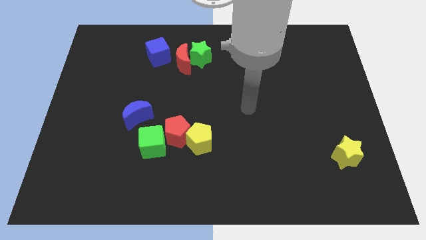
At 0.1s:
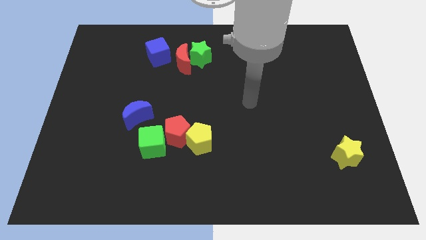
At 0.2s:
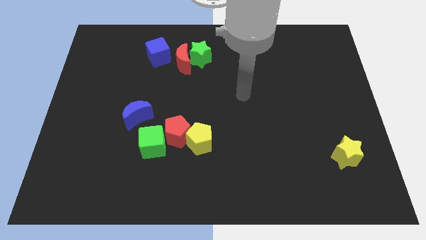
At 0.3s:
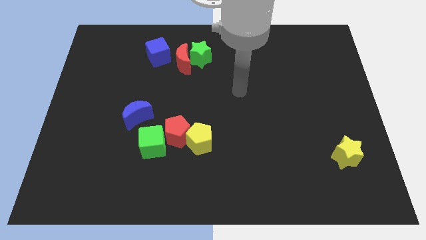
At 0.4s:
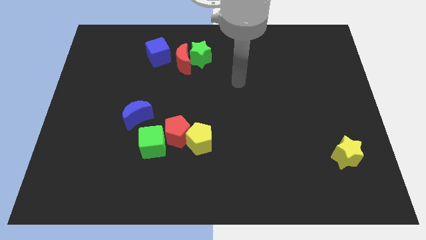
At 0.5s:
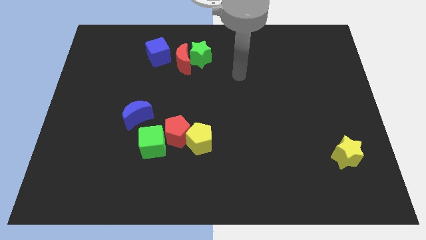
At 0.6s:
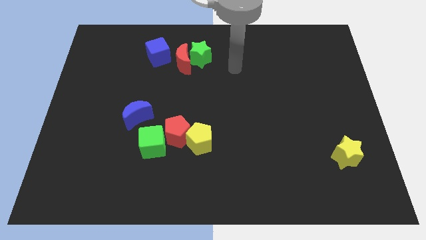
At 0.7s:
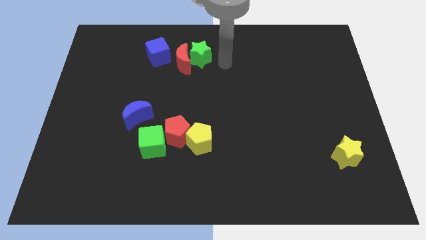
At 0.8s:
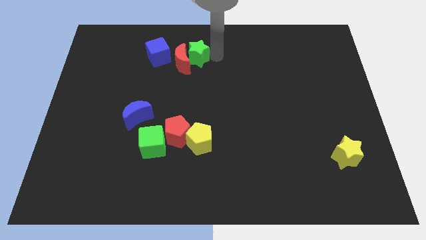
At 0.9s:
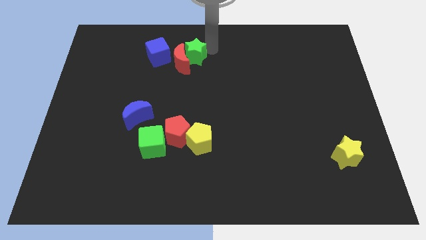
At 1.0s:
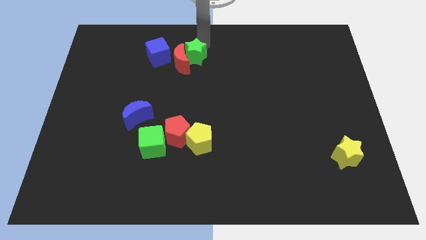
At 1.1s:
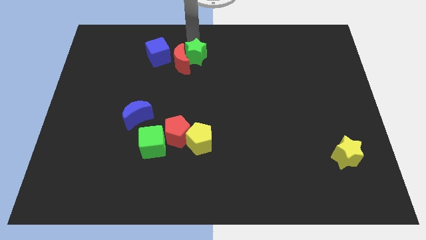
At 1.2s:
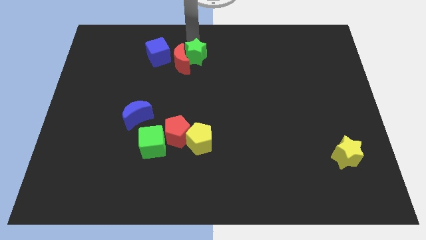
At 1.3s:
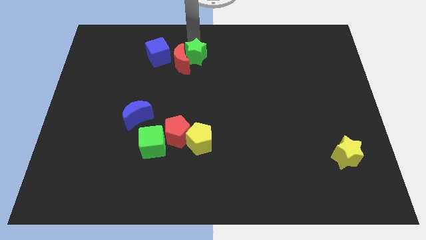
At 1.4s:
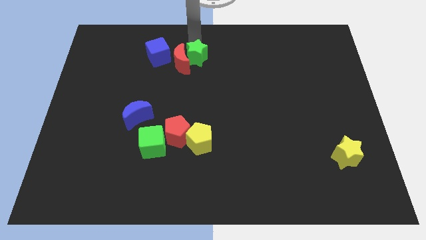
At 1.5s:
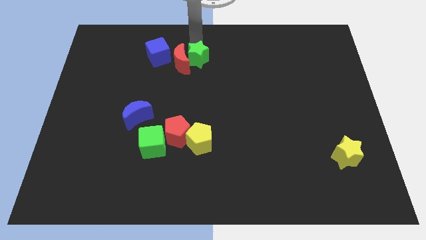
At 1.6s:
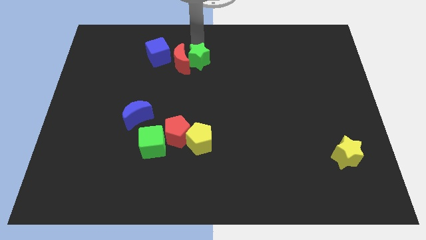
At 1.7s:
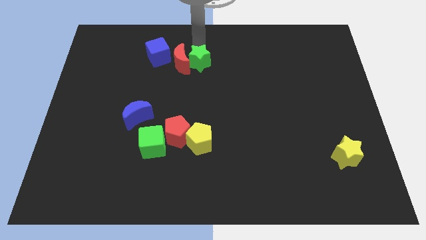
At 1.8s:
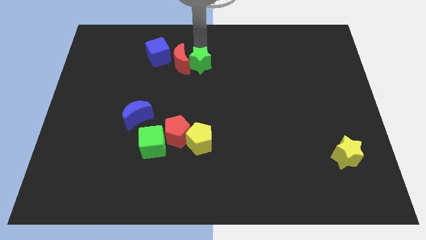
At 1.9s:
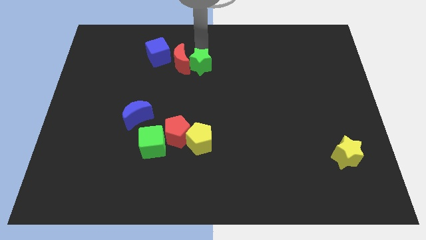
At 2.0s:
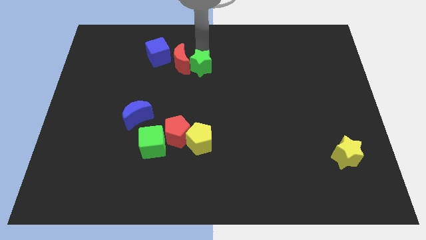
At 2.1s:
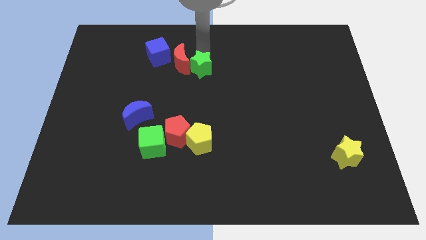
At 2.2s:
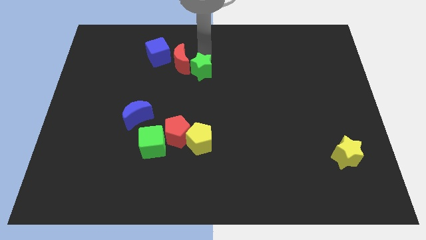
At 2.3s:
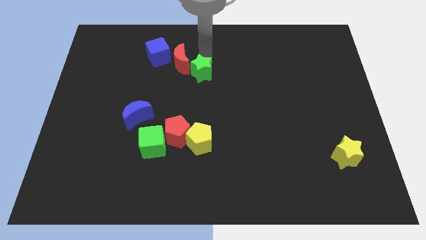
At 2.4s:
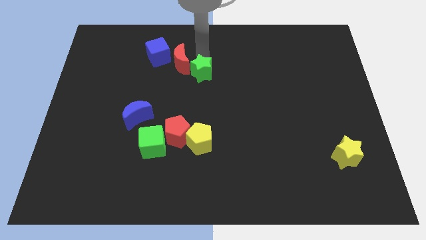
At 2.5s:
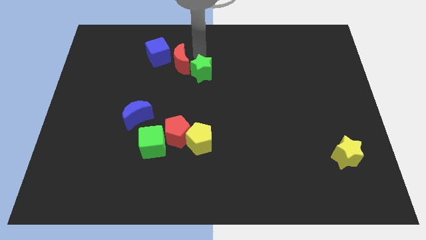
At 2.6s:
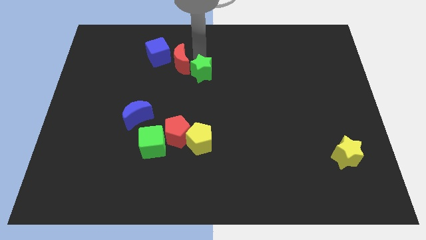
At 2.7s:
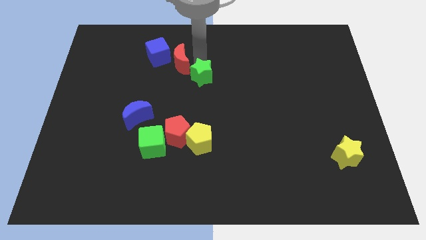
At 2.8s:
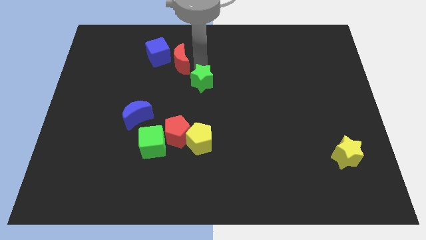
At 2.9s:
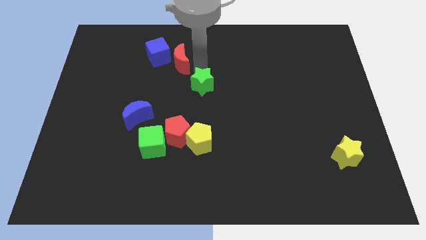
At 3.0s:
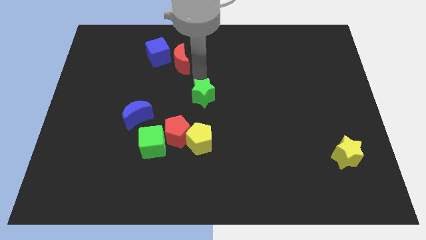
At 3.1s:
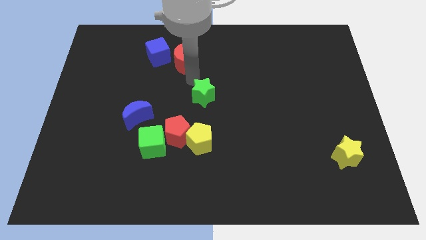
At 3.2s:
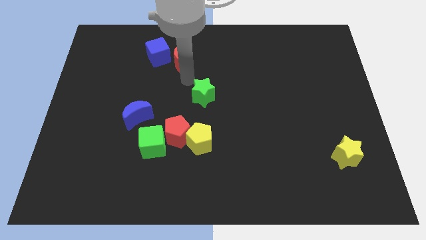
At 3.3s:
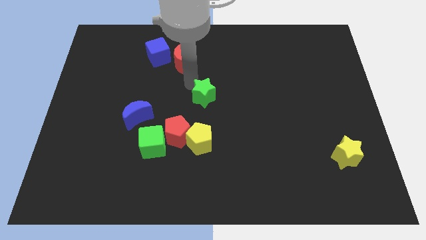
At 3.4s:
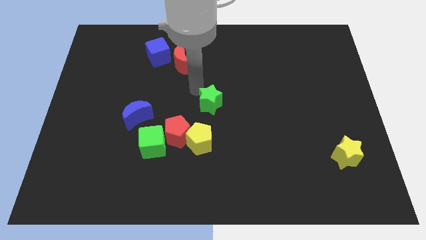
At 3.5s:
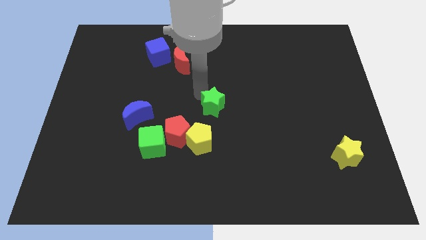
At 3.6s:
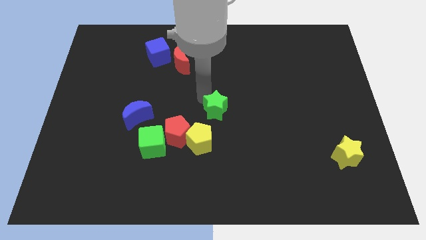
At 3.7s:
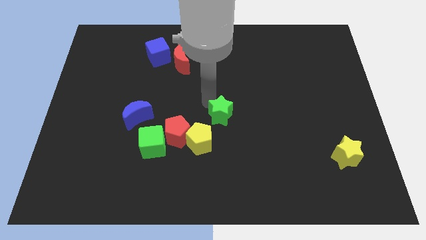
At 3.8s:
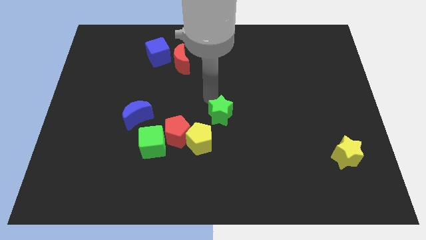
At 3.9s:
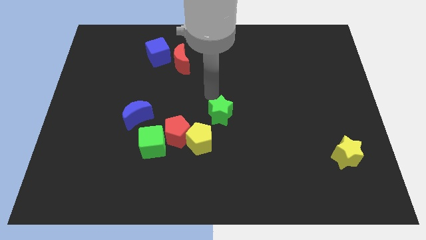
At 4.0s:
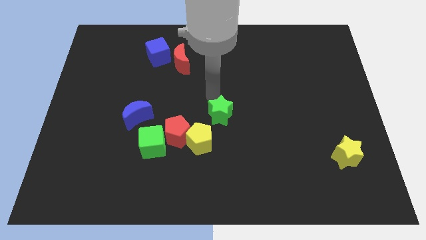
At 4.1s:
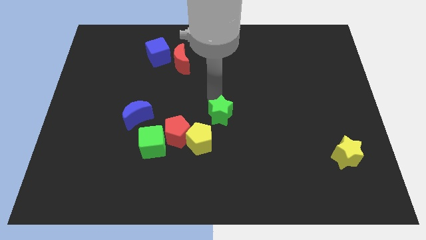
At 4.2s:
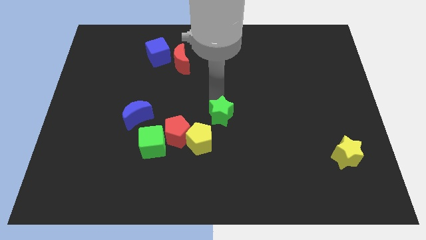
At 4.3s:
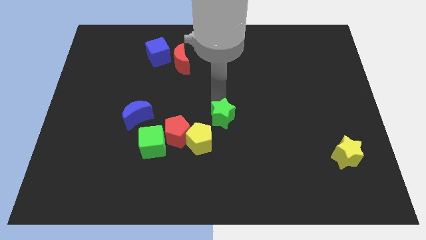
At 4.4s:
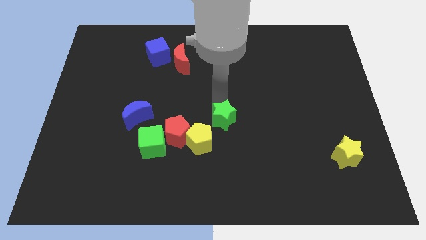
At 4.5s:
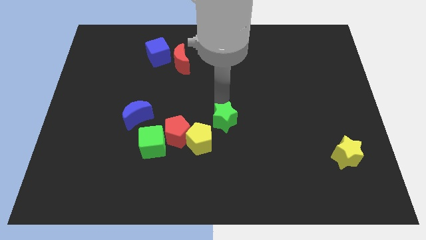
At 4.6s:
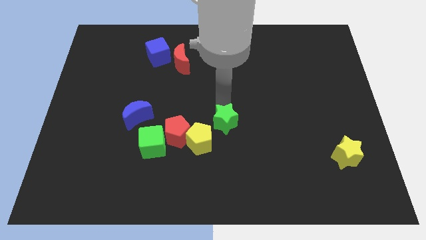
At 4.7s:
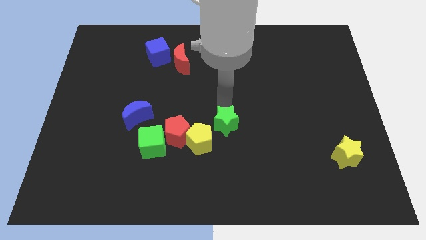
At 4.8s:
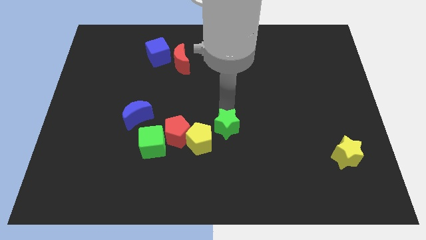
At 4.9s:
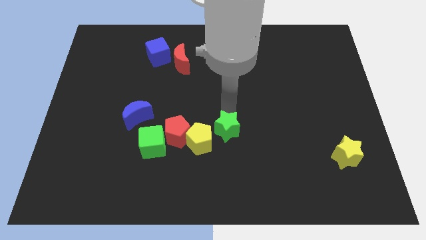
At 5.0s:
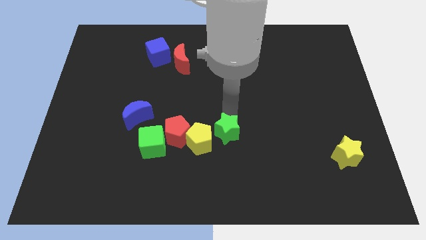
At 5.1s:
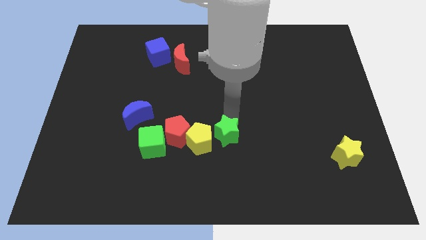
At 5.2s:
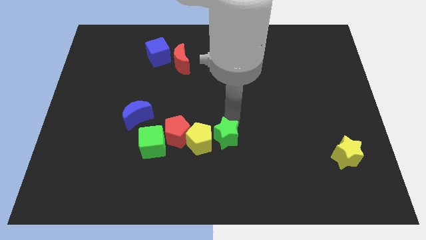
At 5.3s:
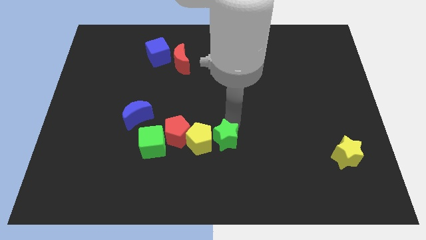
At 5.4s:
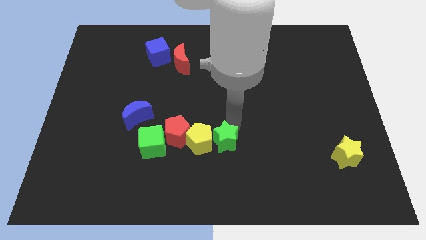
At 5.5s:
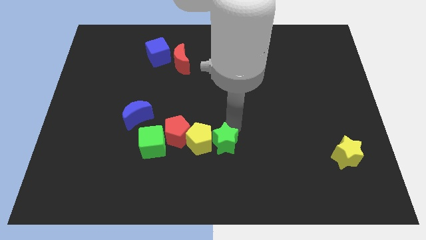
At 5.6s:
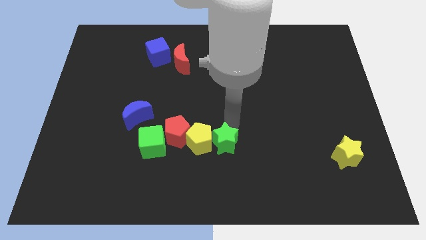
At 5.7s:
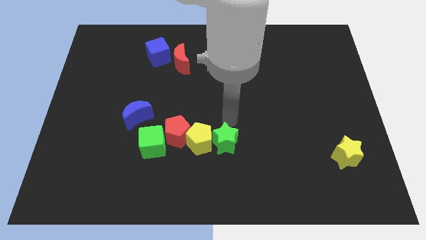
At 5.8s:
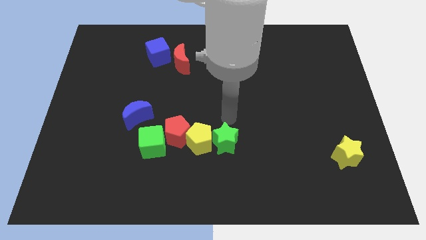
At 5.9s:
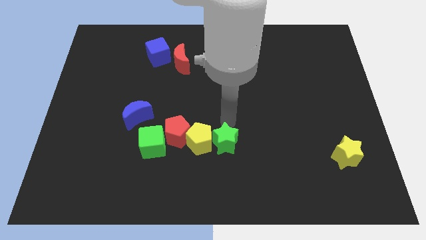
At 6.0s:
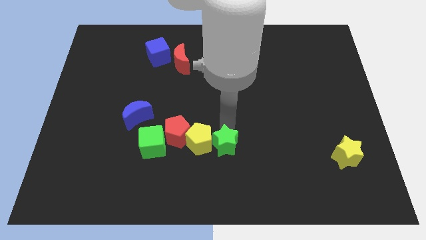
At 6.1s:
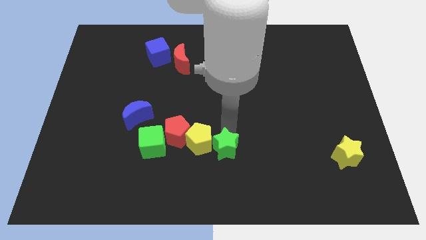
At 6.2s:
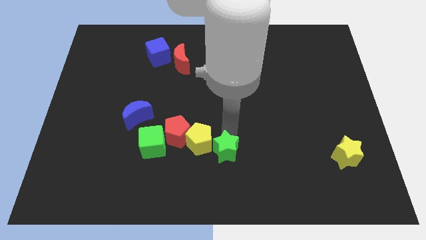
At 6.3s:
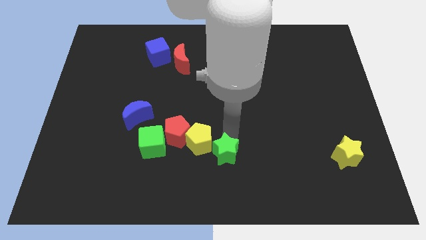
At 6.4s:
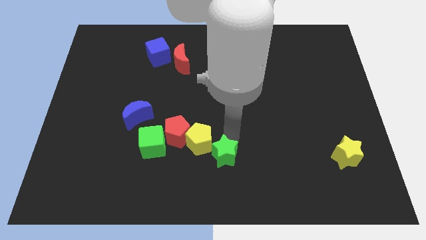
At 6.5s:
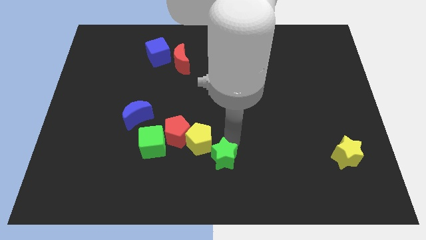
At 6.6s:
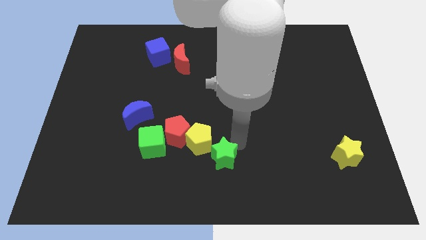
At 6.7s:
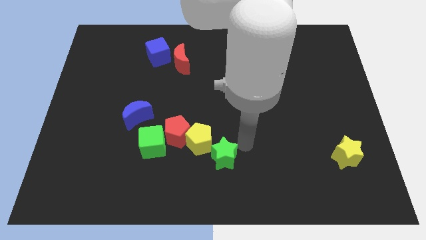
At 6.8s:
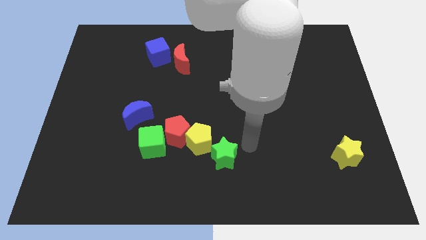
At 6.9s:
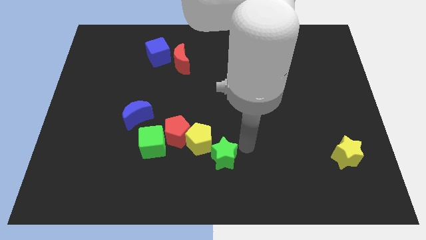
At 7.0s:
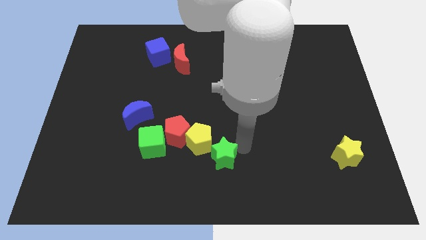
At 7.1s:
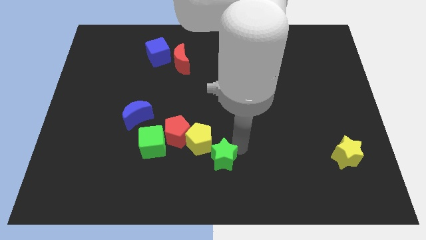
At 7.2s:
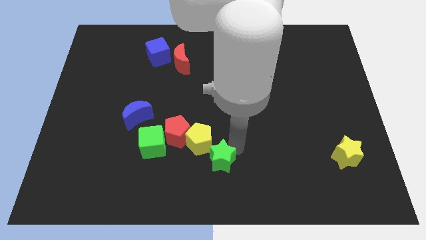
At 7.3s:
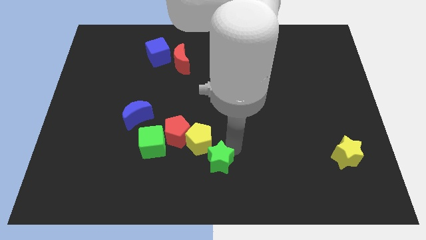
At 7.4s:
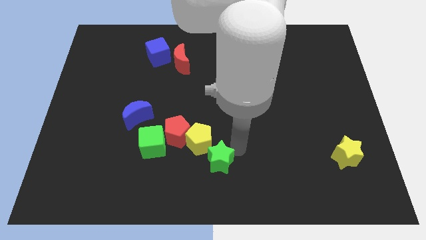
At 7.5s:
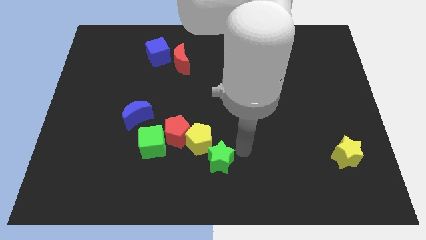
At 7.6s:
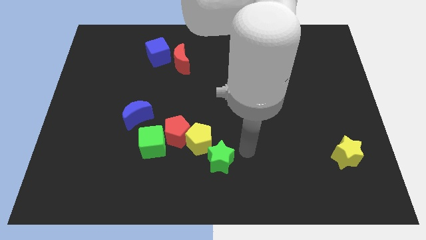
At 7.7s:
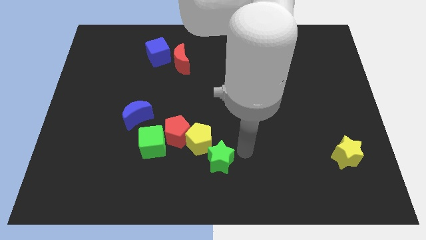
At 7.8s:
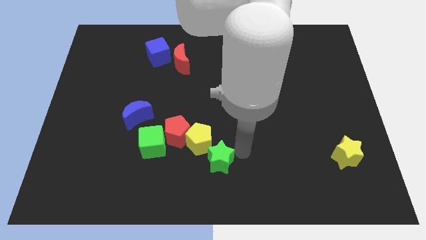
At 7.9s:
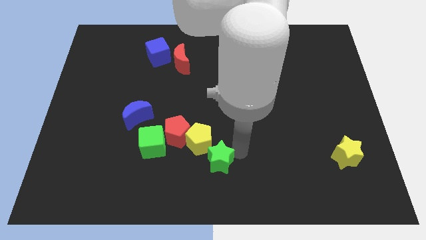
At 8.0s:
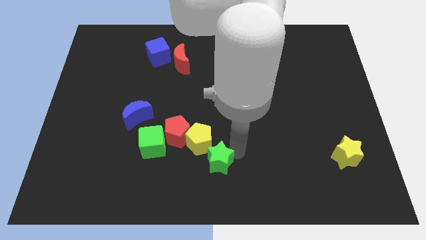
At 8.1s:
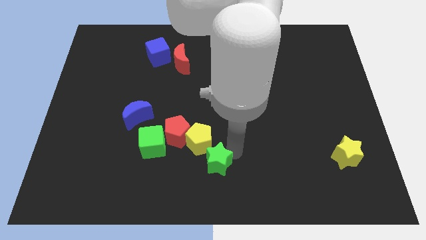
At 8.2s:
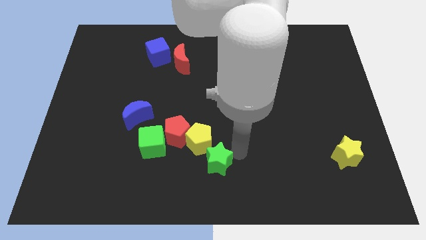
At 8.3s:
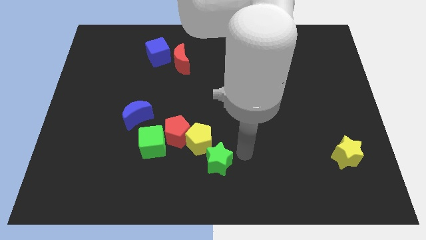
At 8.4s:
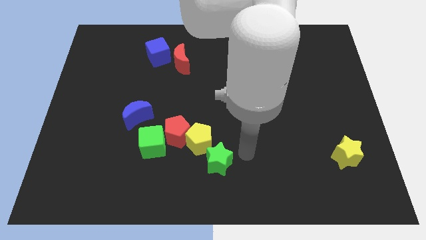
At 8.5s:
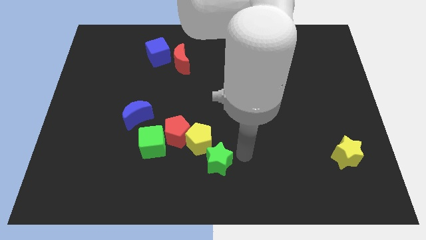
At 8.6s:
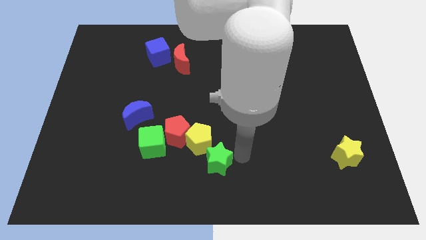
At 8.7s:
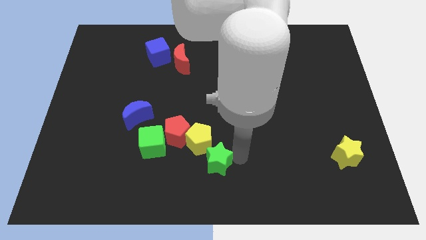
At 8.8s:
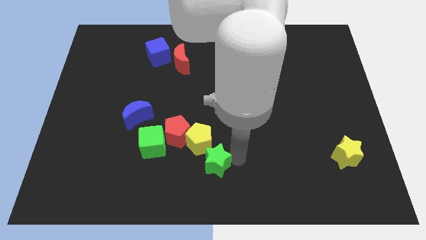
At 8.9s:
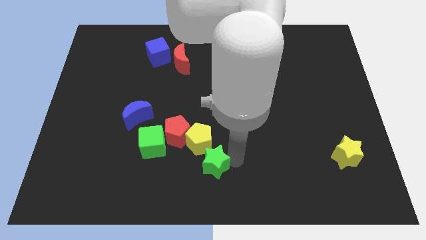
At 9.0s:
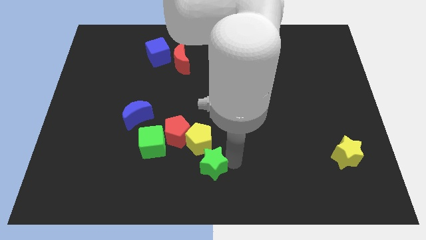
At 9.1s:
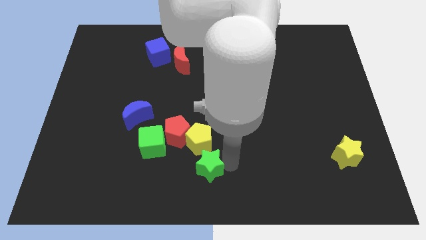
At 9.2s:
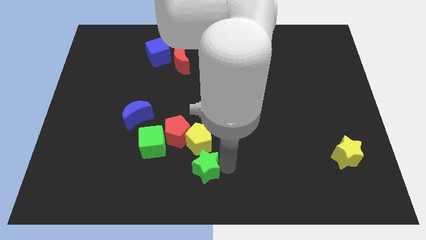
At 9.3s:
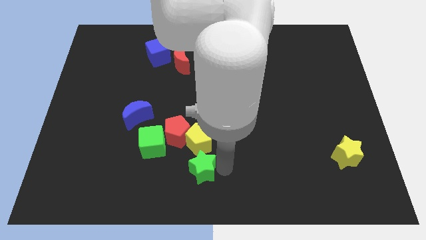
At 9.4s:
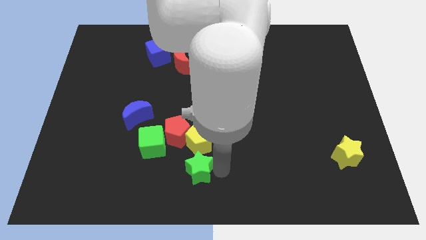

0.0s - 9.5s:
move the green star to the bottom of the red pentagon
